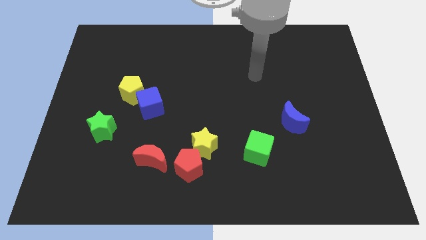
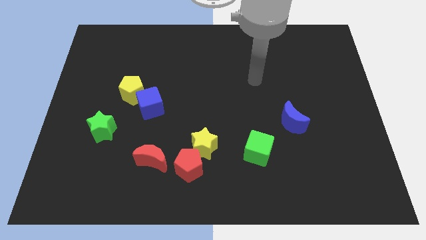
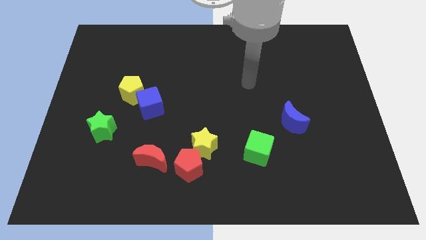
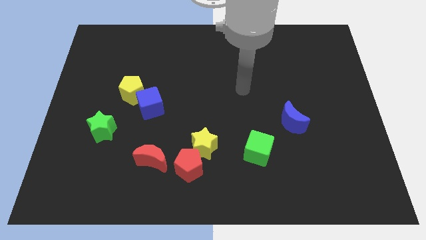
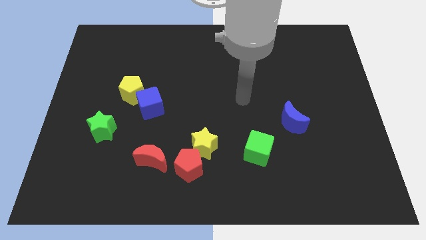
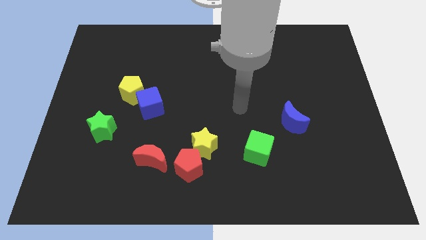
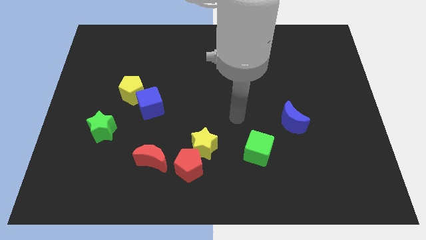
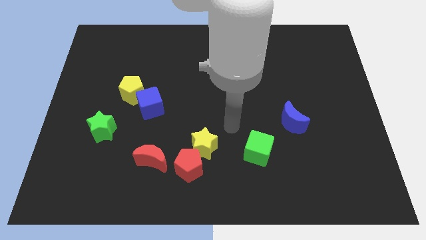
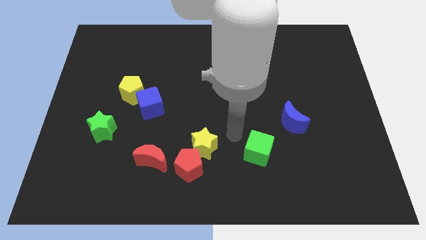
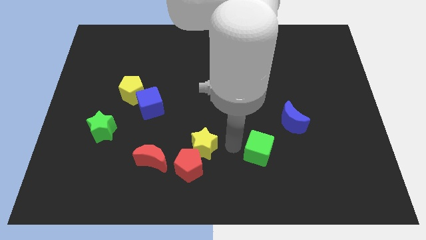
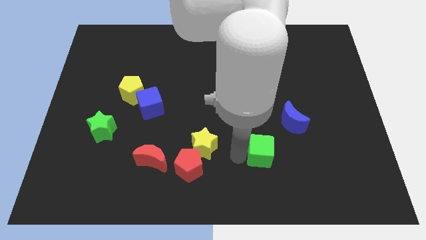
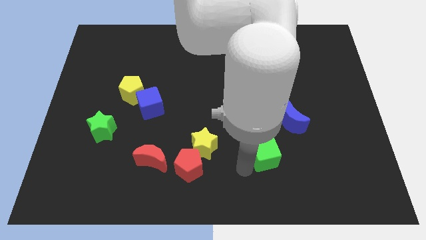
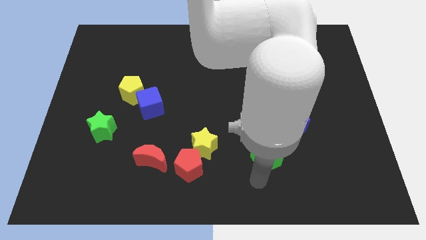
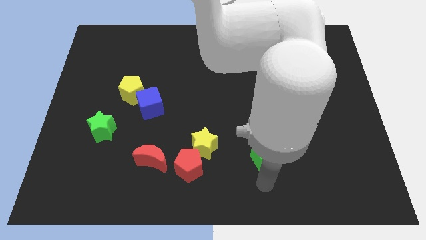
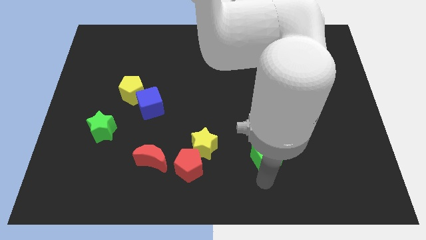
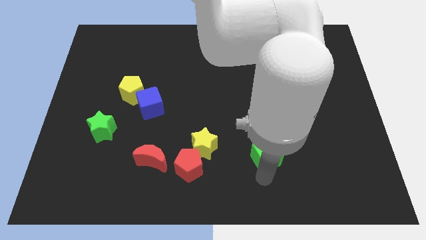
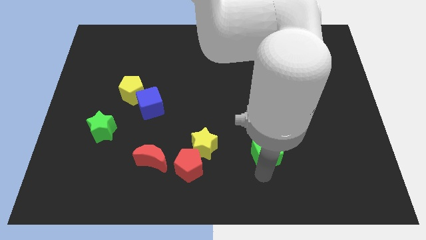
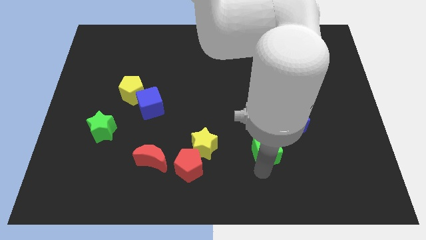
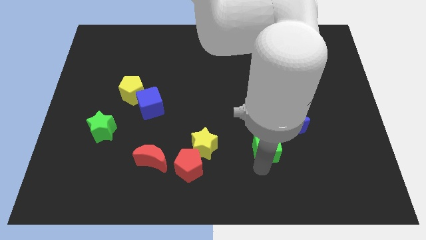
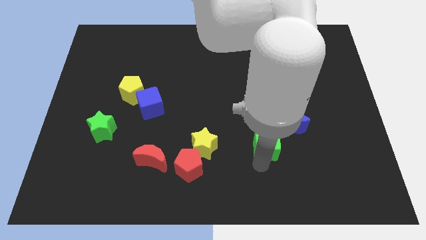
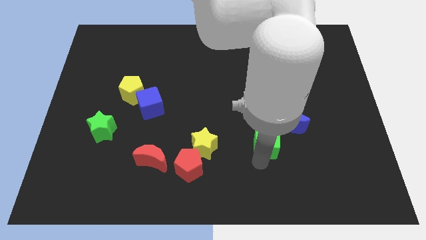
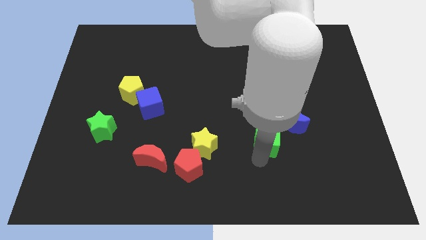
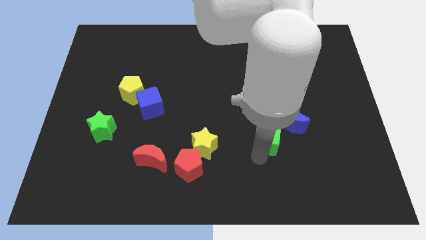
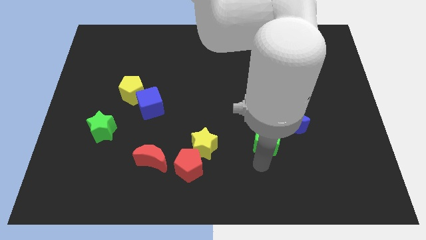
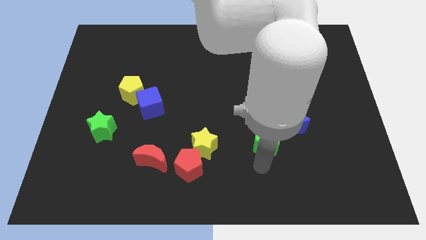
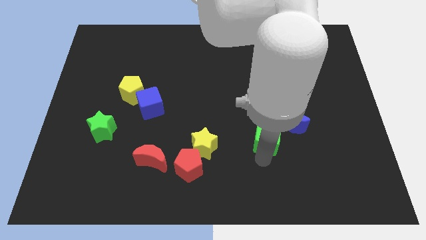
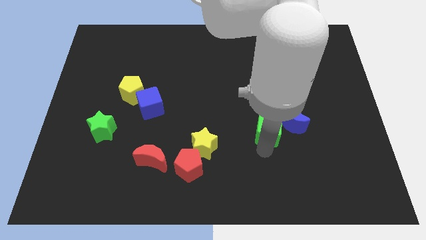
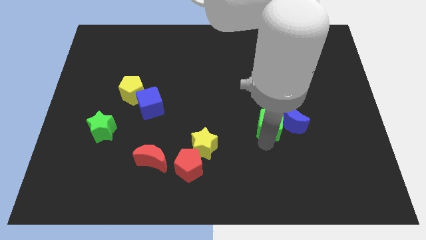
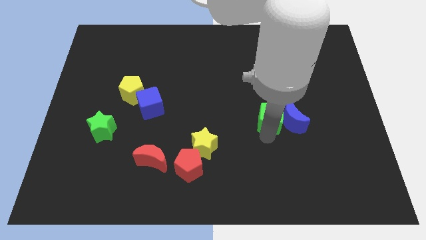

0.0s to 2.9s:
push the green cube a bit upwards and to the right diagonally

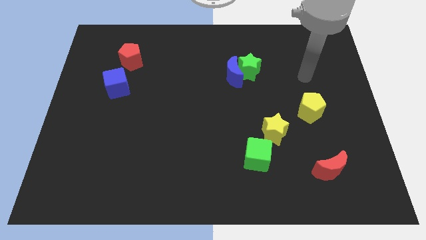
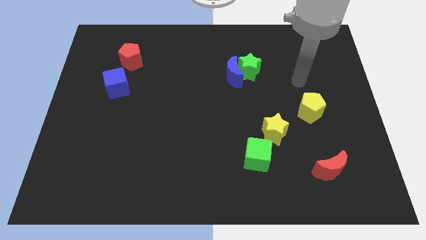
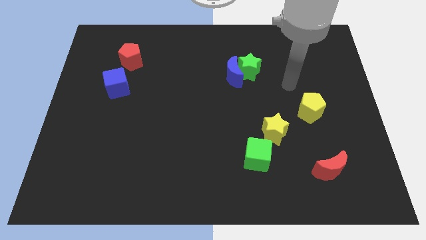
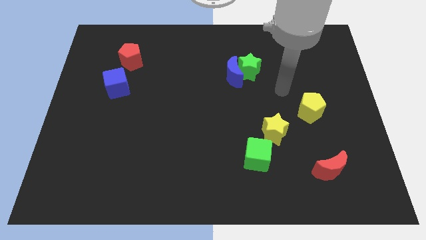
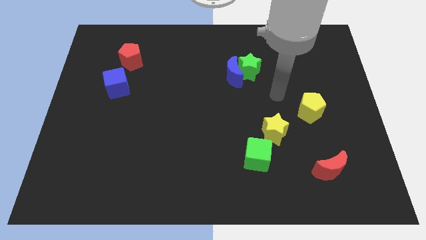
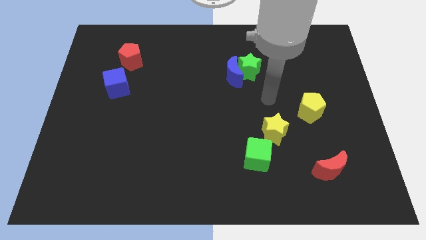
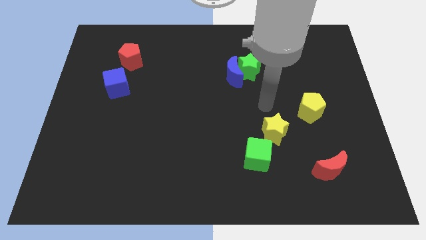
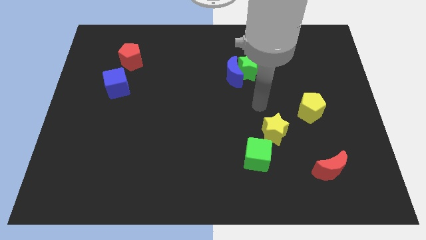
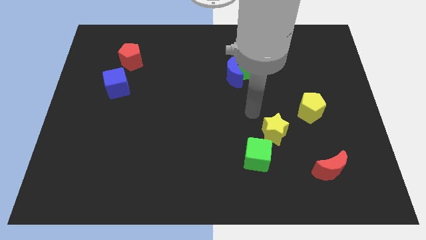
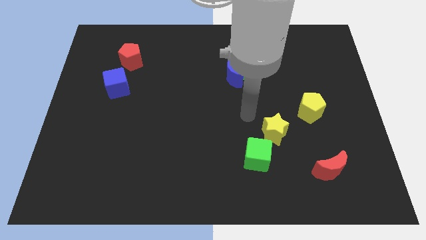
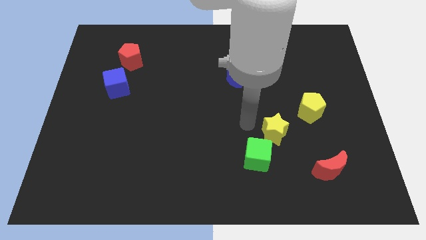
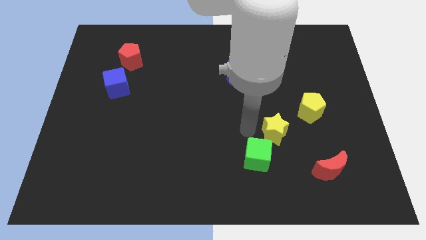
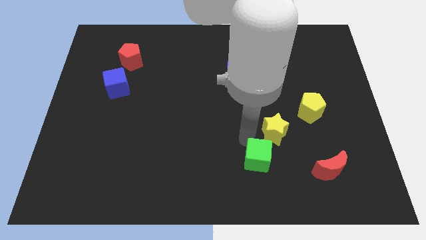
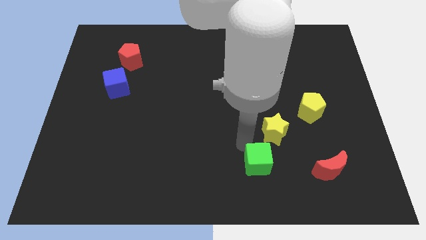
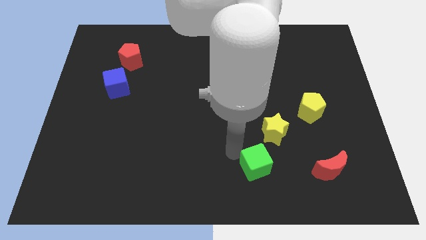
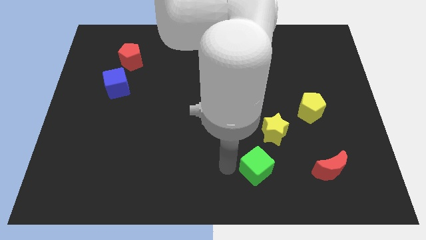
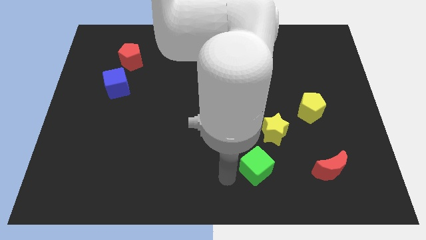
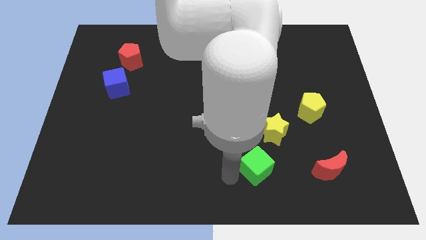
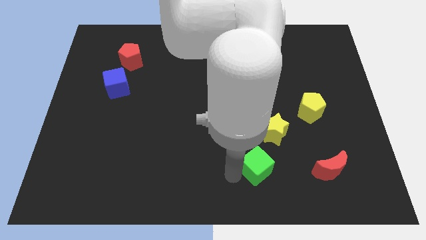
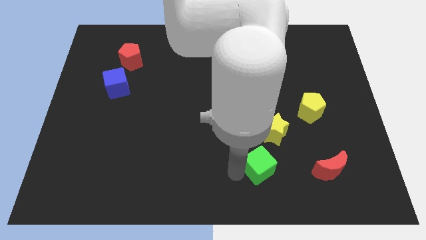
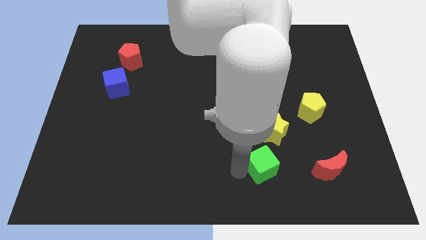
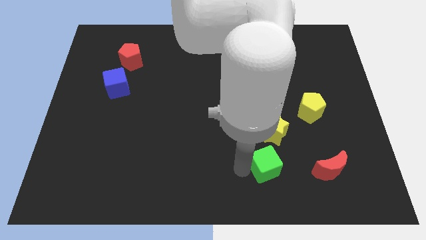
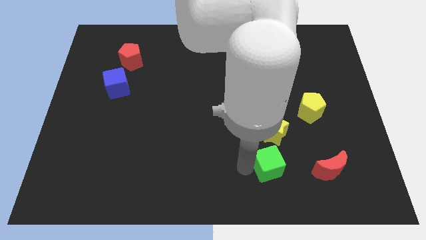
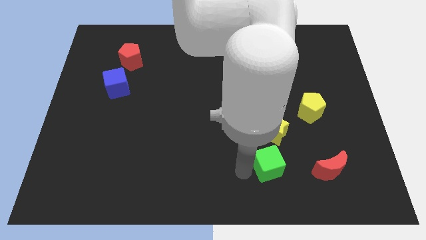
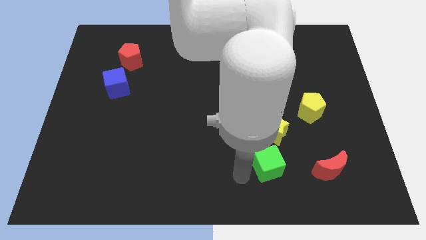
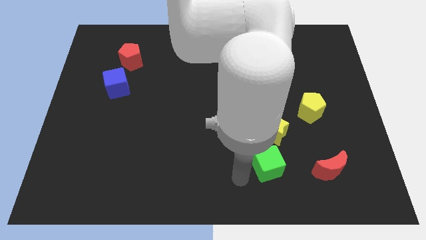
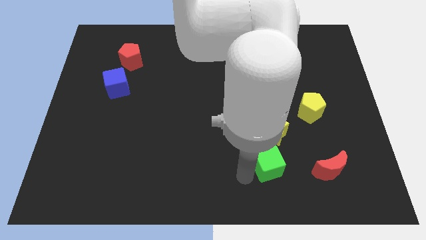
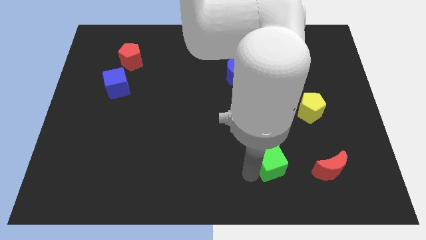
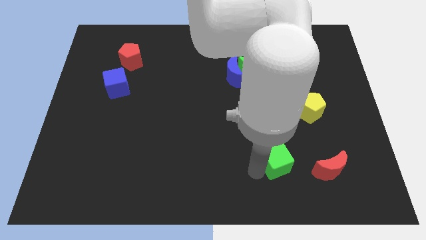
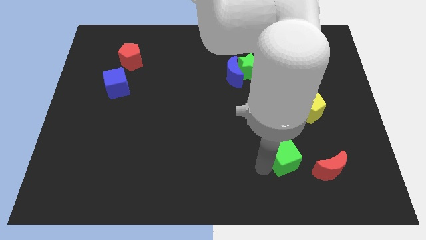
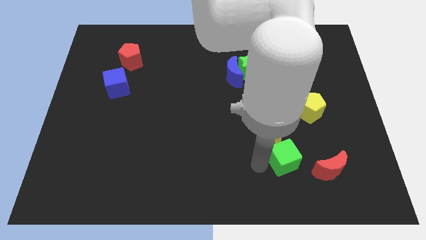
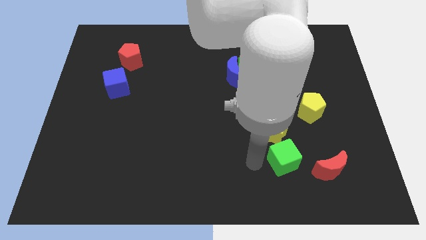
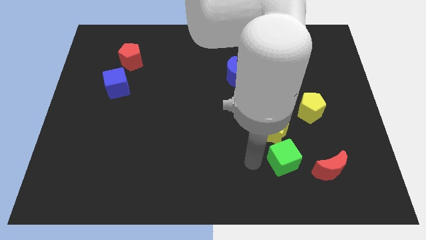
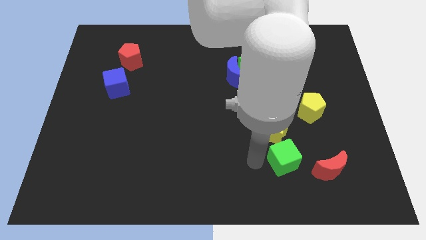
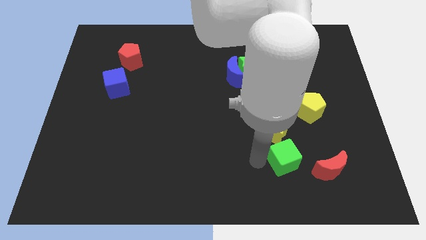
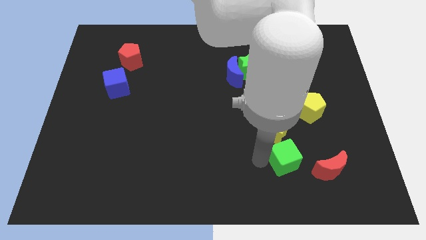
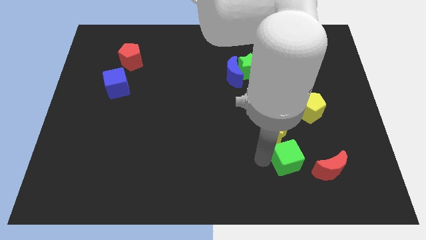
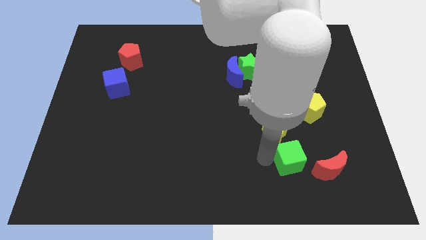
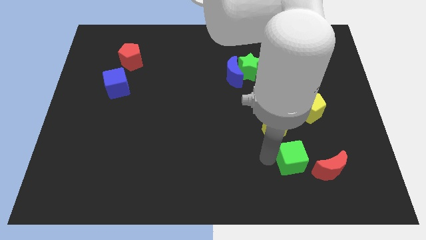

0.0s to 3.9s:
slide the green cube somewhat right

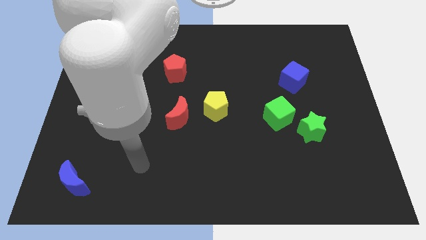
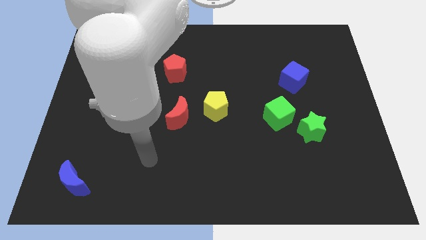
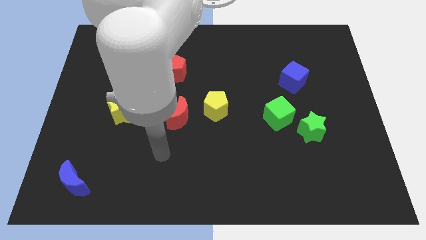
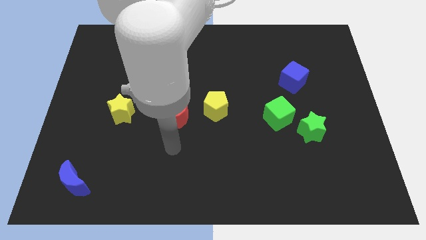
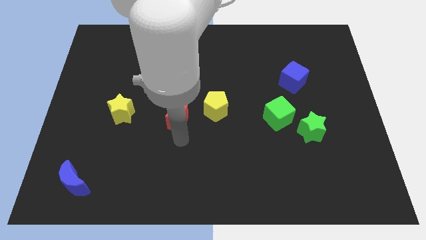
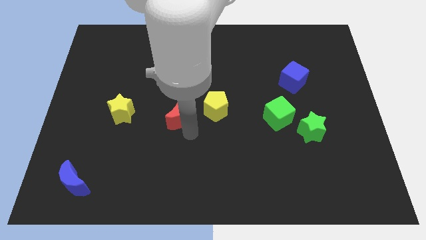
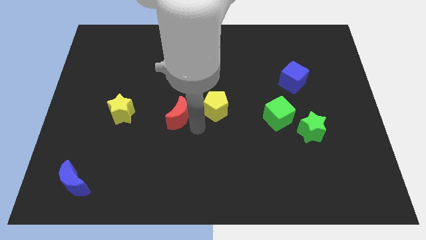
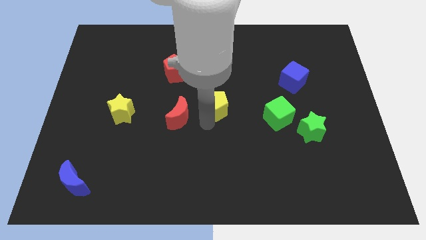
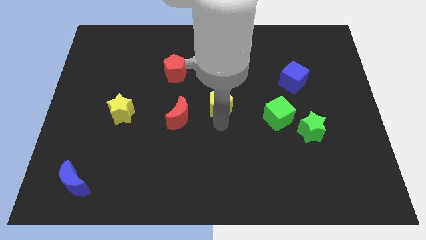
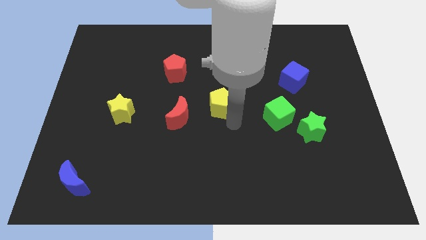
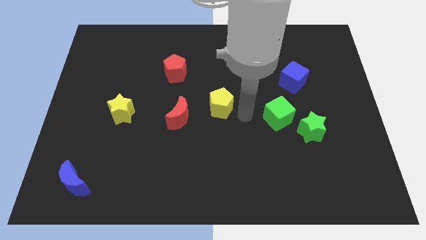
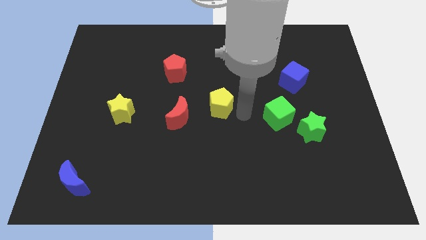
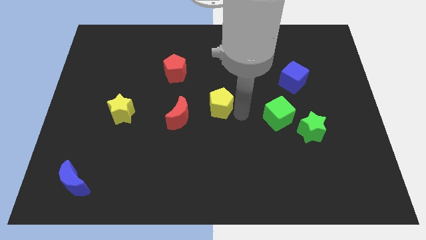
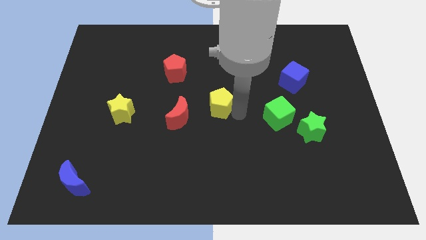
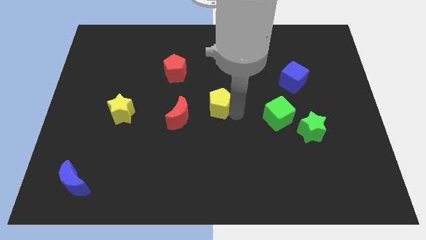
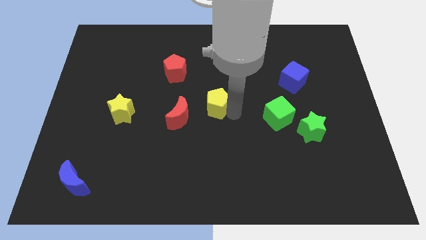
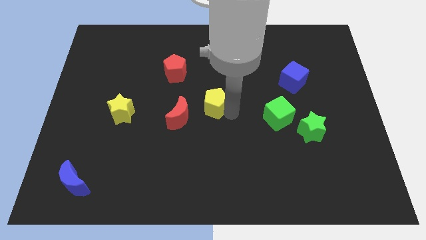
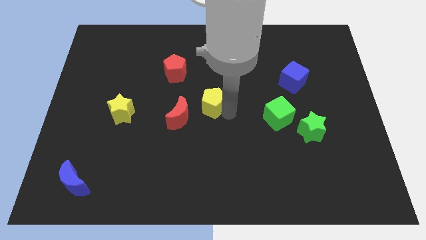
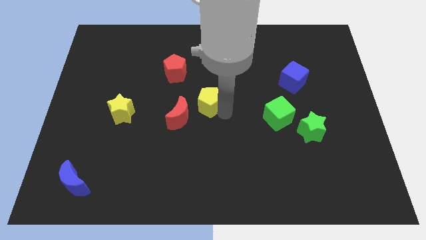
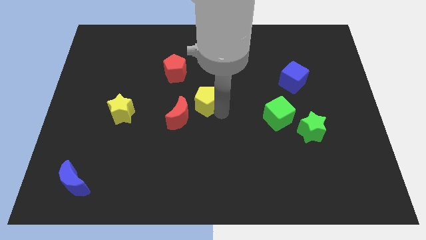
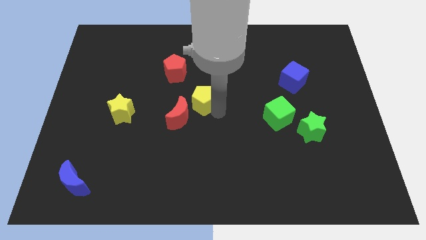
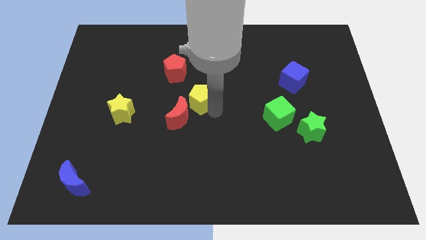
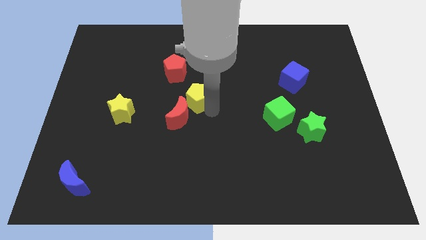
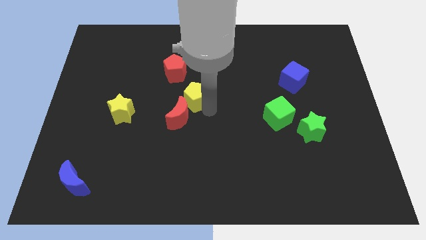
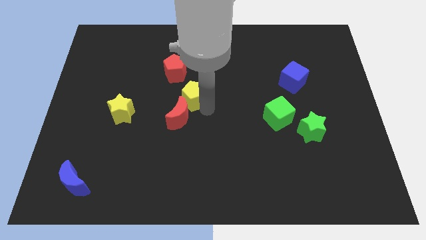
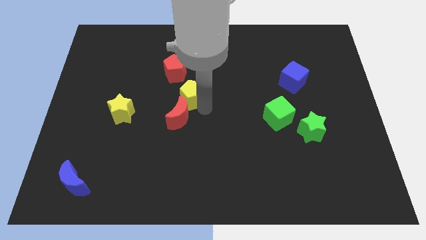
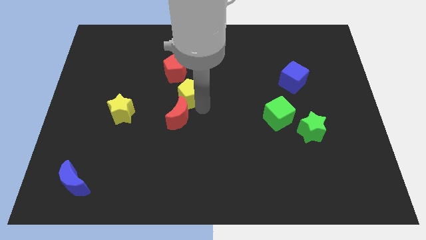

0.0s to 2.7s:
move the yellow pentagon somewhat diagonally up and left
